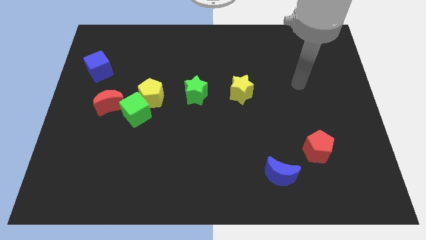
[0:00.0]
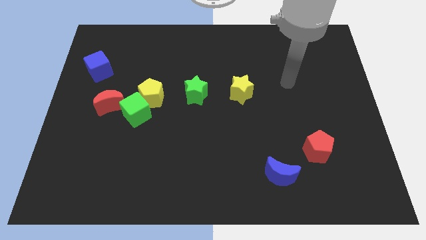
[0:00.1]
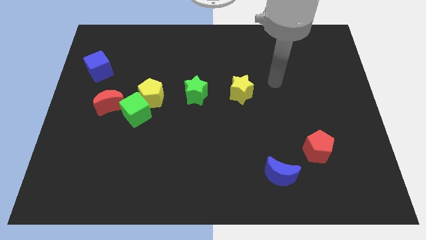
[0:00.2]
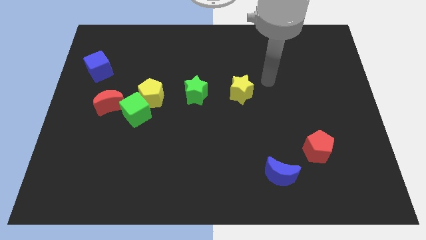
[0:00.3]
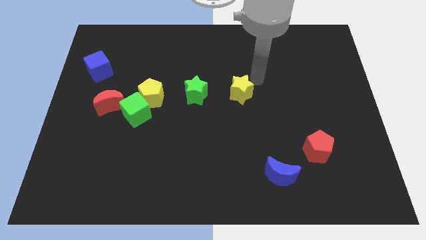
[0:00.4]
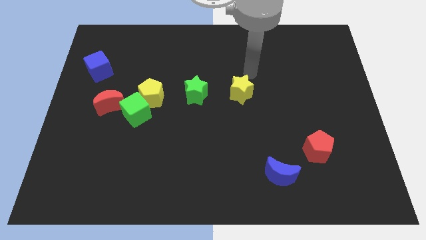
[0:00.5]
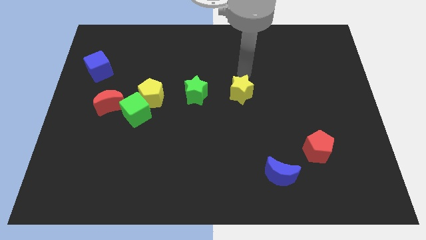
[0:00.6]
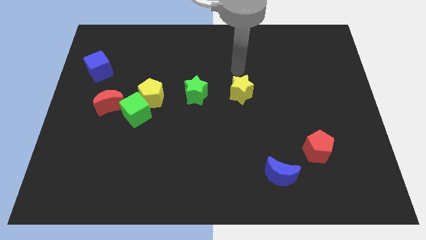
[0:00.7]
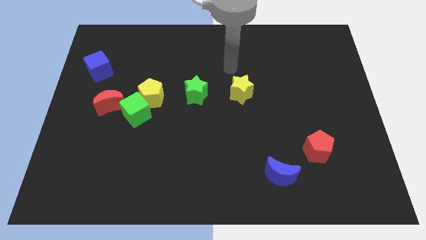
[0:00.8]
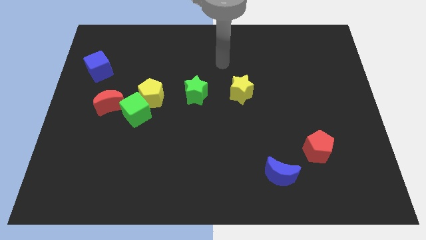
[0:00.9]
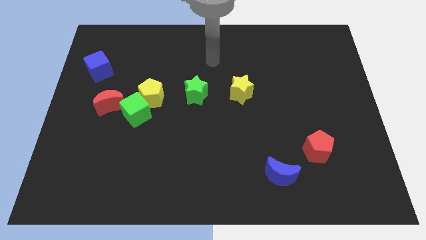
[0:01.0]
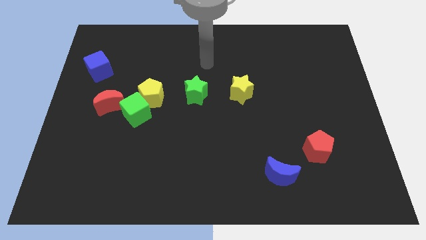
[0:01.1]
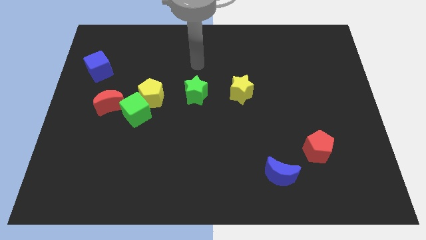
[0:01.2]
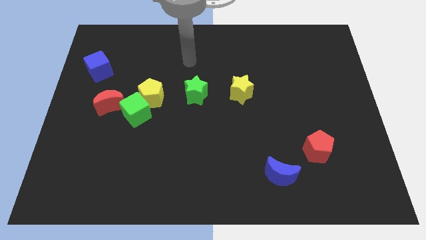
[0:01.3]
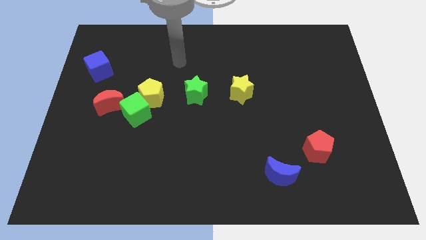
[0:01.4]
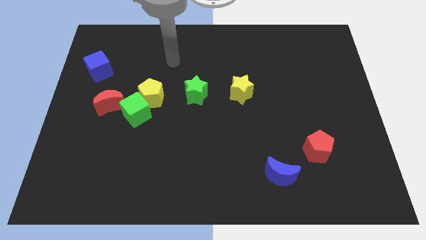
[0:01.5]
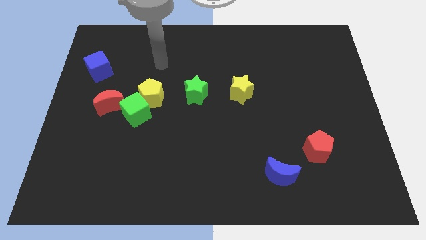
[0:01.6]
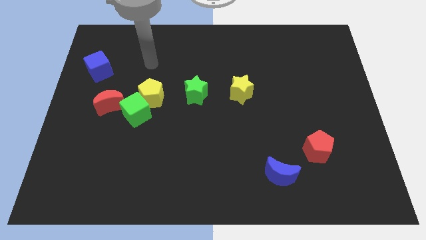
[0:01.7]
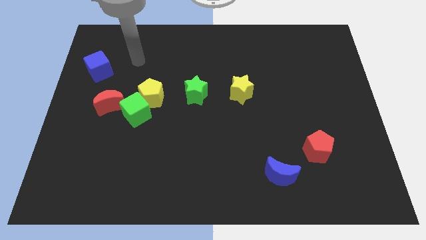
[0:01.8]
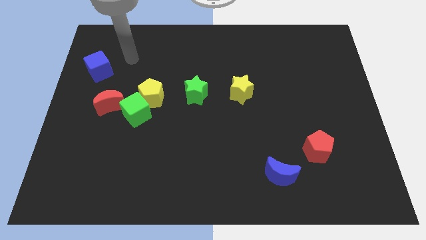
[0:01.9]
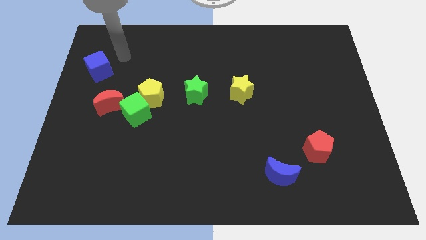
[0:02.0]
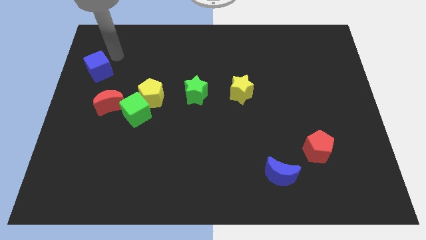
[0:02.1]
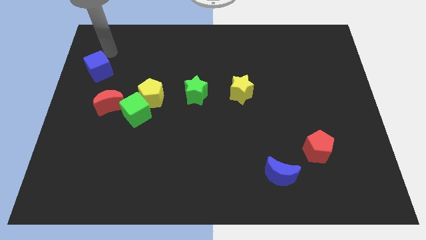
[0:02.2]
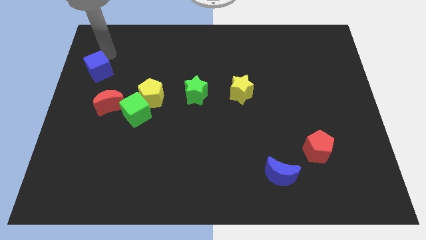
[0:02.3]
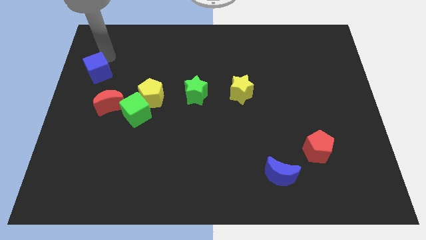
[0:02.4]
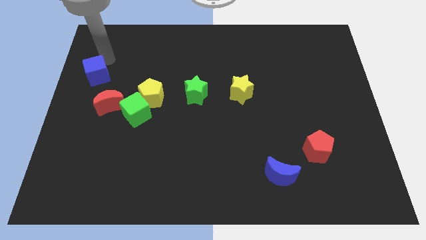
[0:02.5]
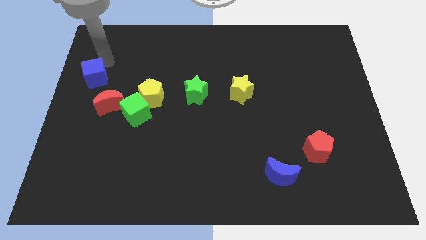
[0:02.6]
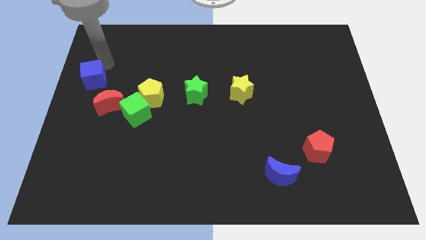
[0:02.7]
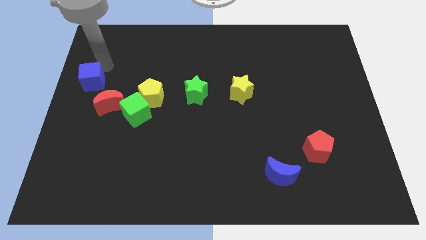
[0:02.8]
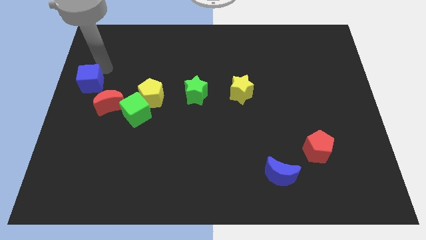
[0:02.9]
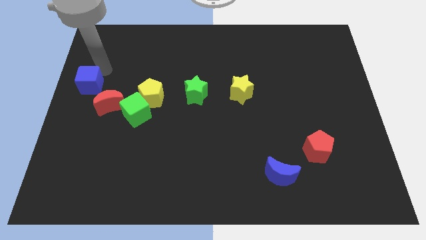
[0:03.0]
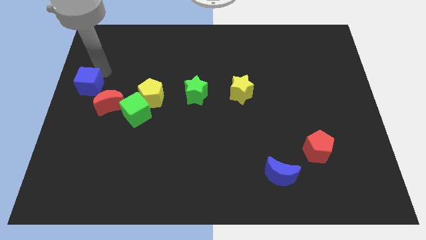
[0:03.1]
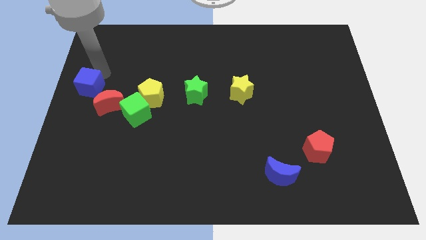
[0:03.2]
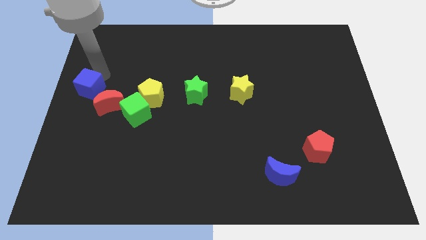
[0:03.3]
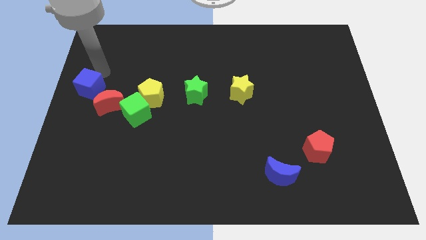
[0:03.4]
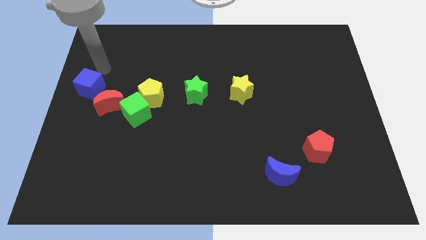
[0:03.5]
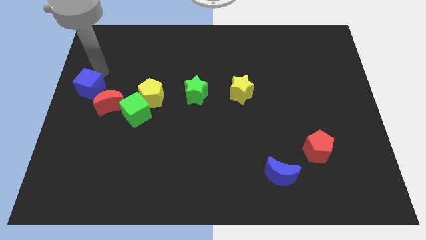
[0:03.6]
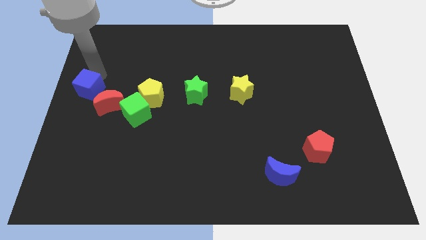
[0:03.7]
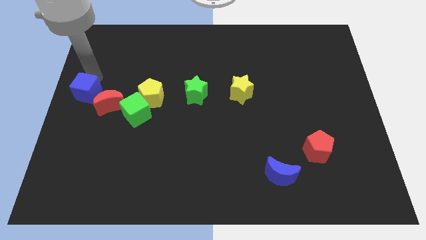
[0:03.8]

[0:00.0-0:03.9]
push the blue cube somewhat downwards

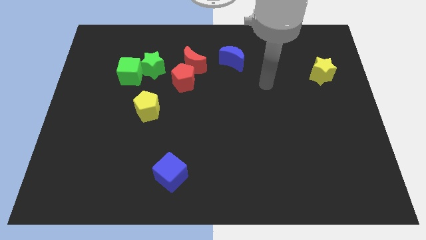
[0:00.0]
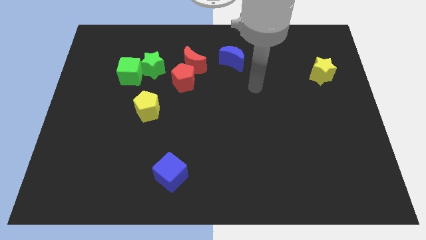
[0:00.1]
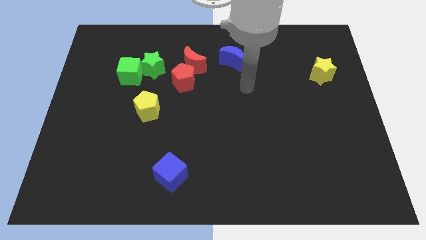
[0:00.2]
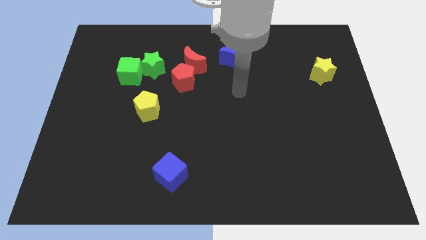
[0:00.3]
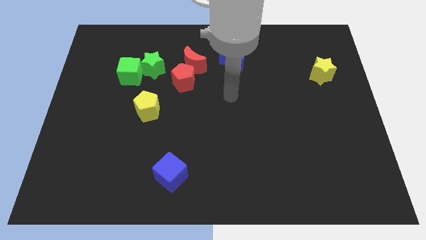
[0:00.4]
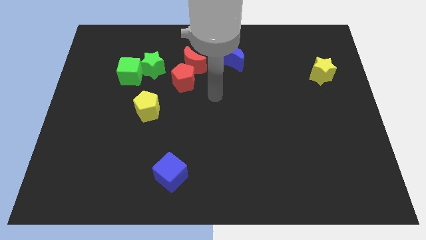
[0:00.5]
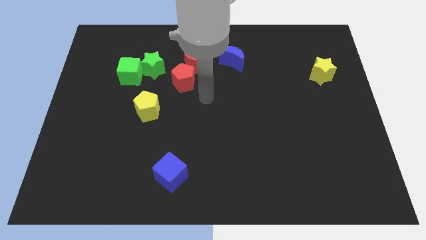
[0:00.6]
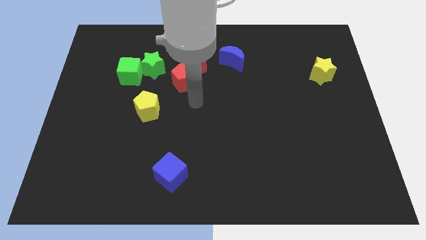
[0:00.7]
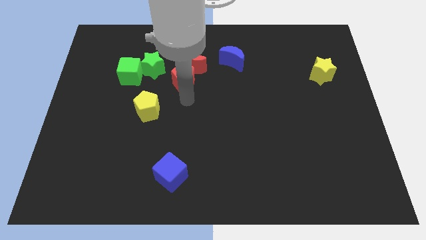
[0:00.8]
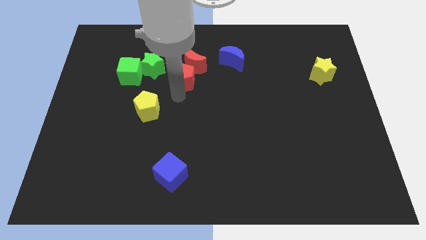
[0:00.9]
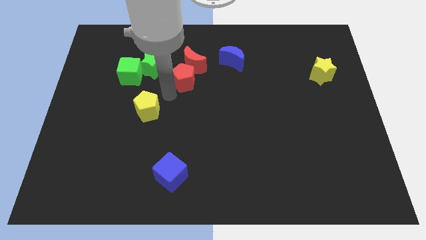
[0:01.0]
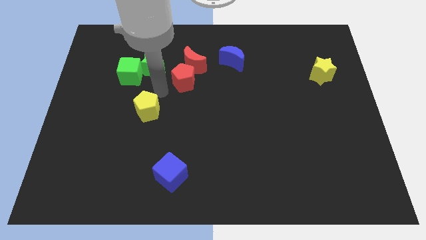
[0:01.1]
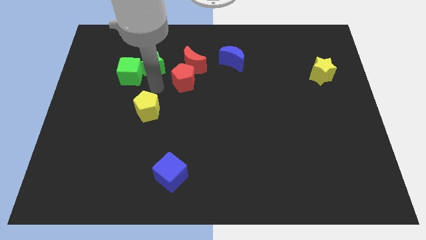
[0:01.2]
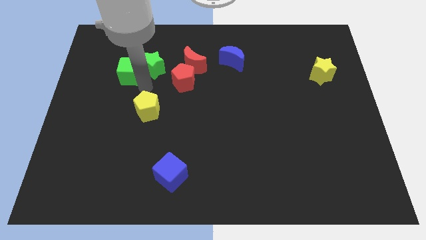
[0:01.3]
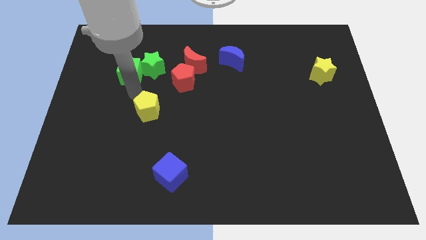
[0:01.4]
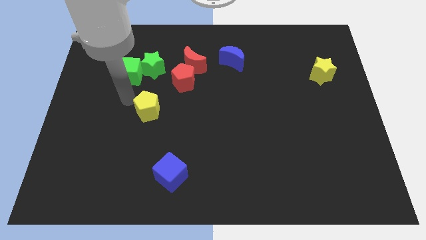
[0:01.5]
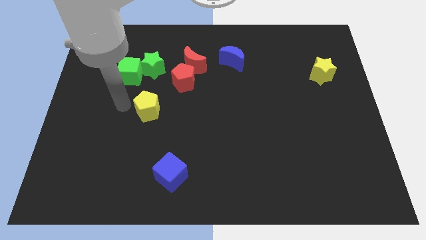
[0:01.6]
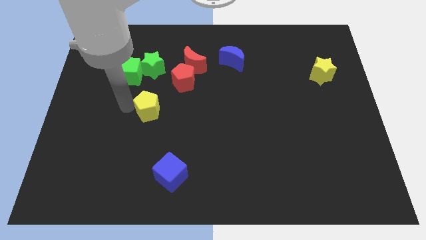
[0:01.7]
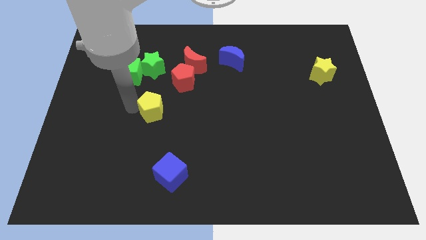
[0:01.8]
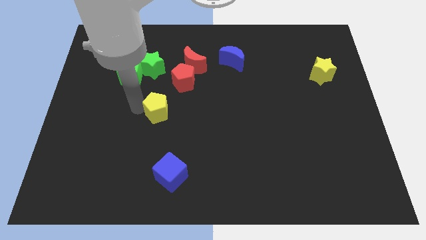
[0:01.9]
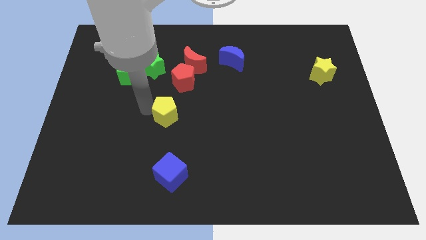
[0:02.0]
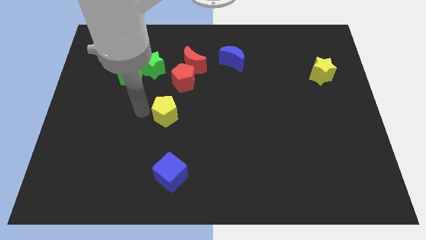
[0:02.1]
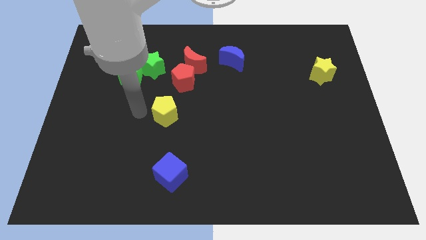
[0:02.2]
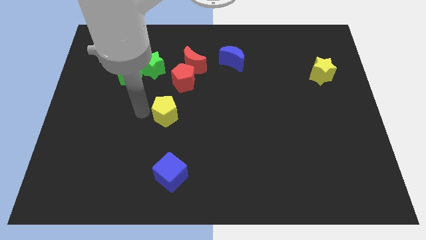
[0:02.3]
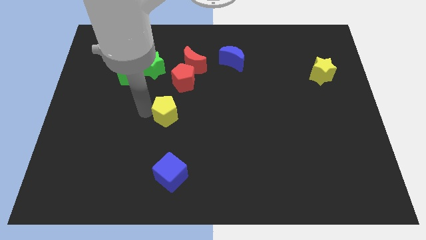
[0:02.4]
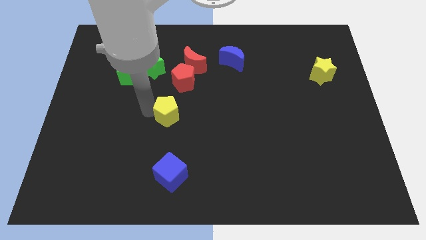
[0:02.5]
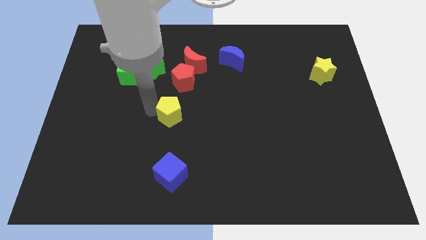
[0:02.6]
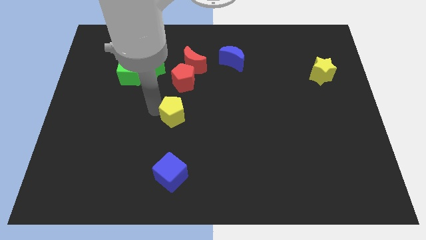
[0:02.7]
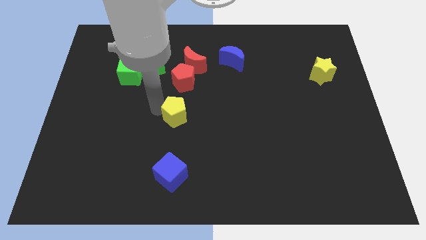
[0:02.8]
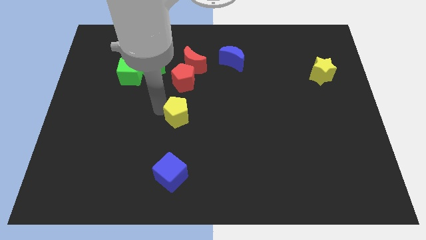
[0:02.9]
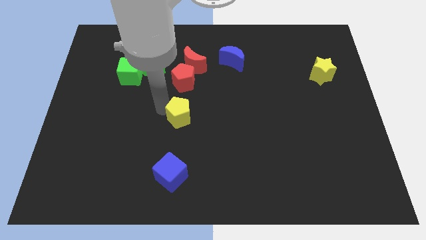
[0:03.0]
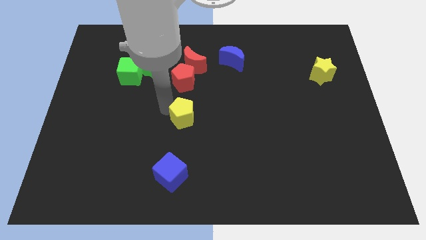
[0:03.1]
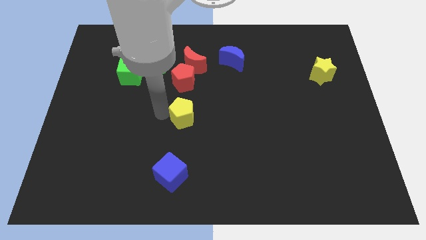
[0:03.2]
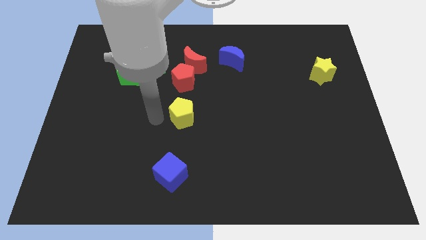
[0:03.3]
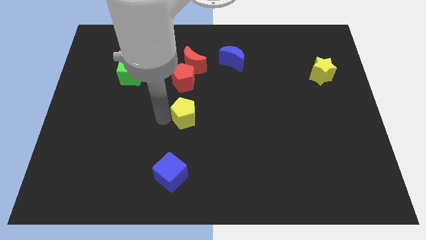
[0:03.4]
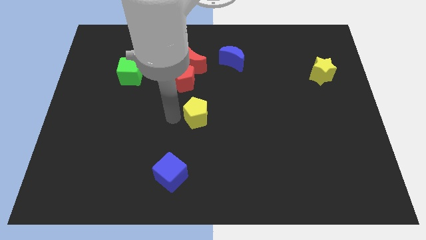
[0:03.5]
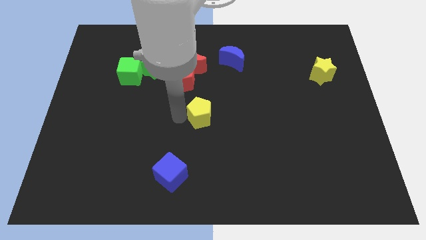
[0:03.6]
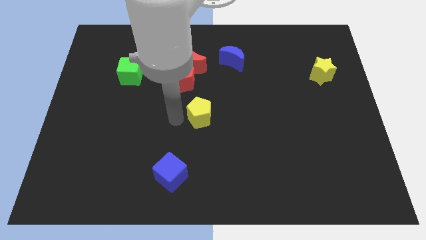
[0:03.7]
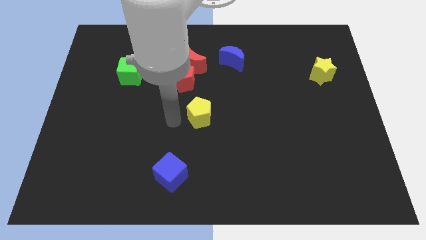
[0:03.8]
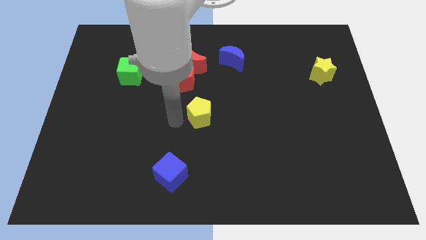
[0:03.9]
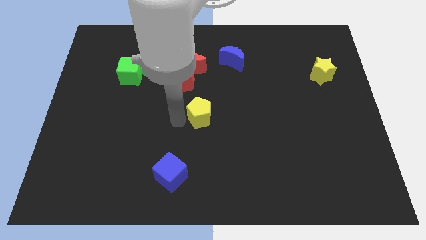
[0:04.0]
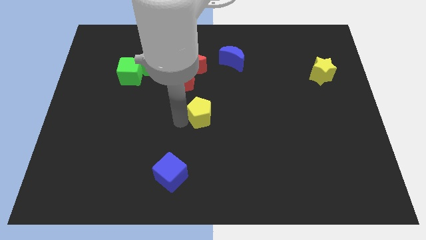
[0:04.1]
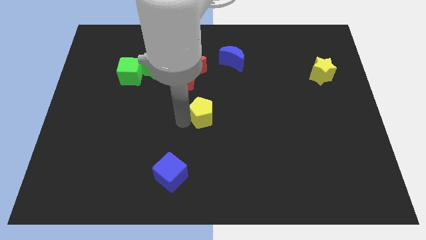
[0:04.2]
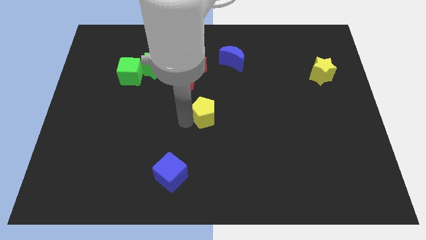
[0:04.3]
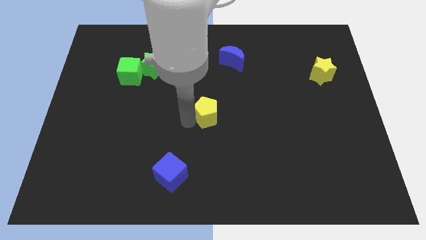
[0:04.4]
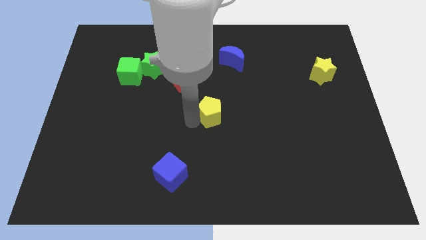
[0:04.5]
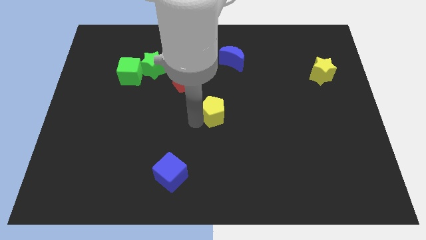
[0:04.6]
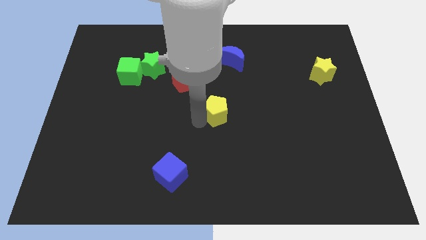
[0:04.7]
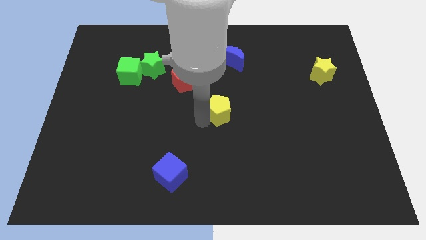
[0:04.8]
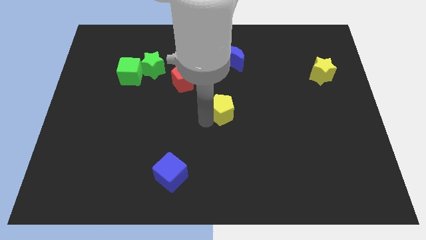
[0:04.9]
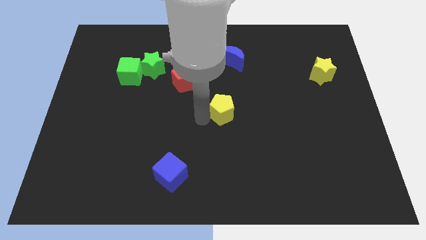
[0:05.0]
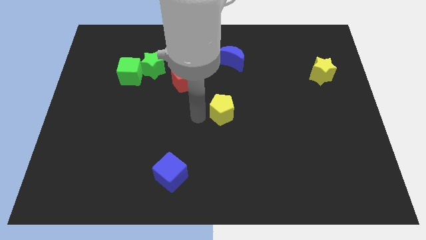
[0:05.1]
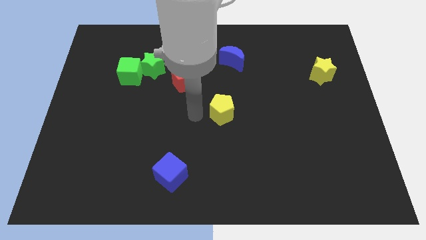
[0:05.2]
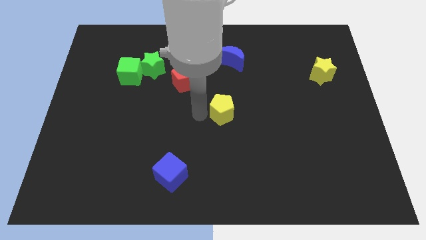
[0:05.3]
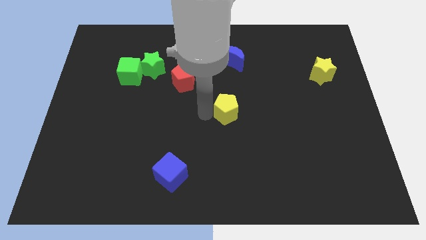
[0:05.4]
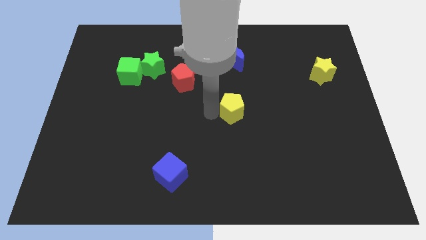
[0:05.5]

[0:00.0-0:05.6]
slide the yellow pentagon right
